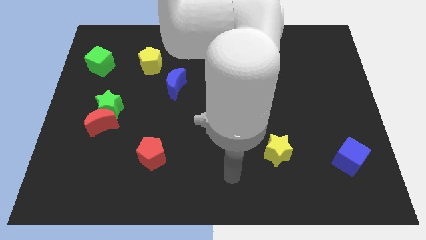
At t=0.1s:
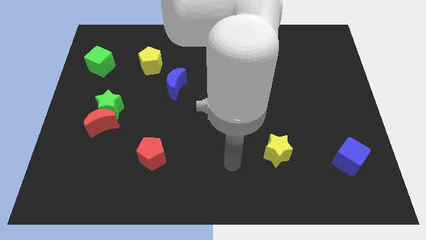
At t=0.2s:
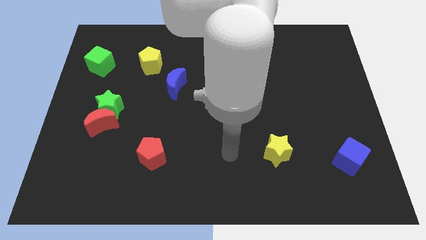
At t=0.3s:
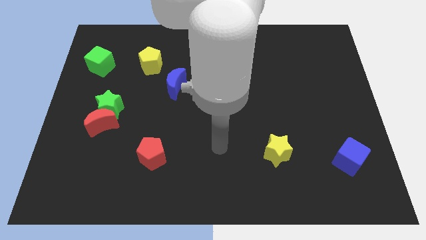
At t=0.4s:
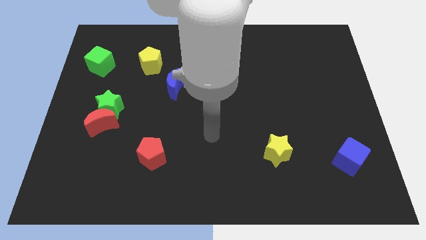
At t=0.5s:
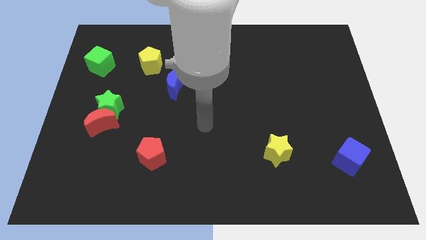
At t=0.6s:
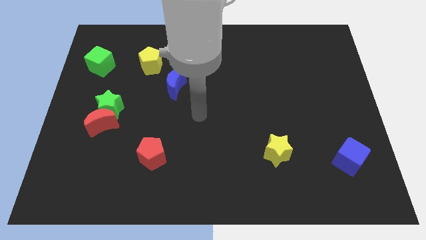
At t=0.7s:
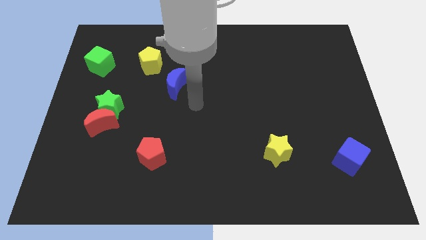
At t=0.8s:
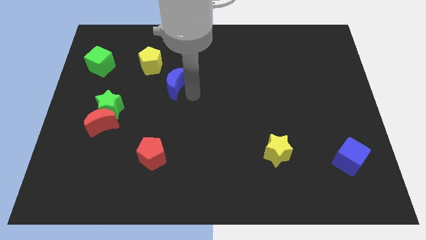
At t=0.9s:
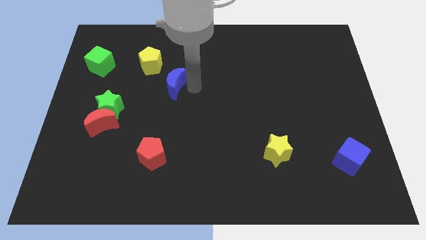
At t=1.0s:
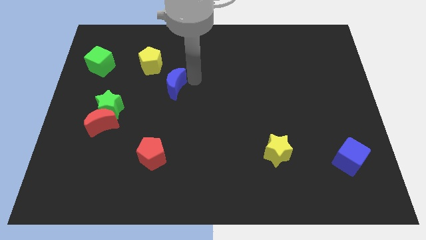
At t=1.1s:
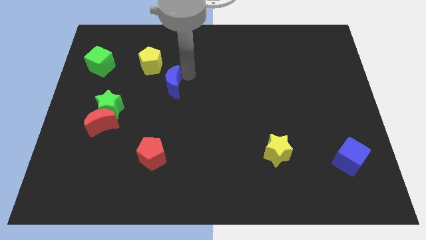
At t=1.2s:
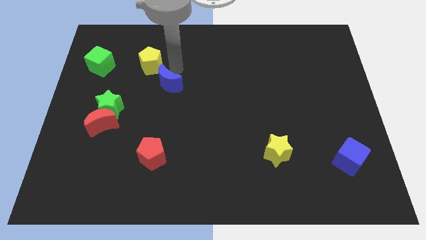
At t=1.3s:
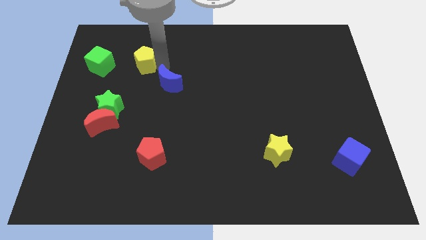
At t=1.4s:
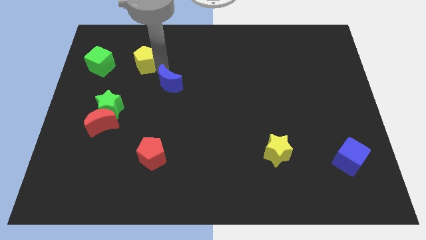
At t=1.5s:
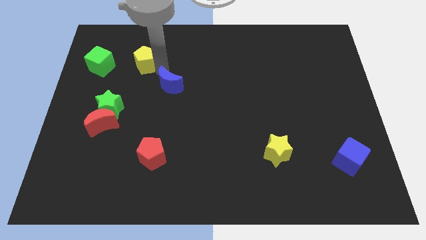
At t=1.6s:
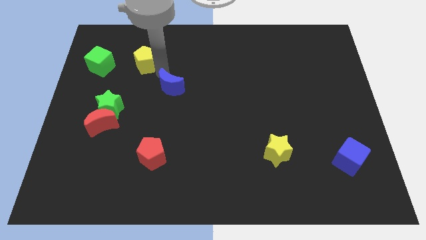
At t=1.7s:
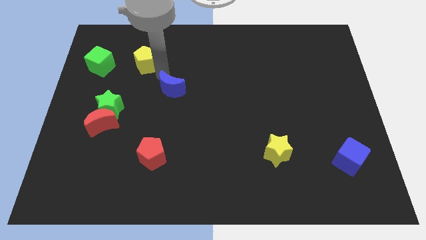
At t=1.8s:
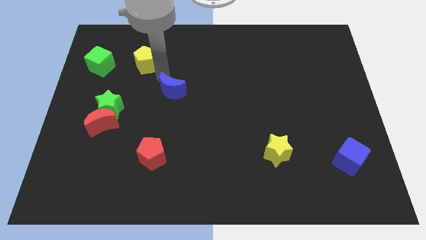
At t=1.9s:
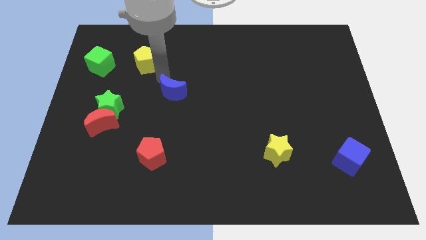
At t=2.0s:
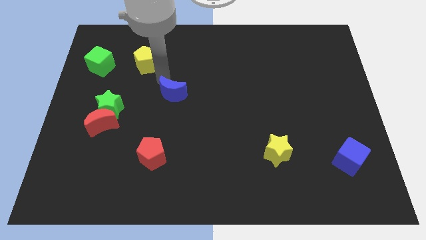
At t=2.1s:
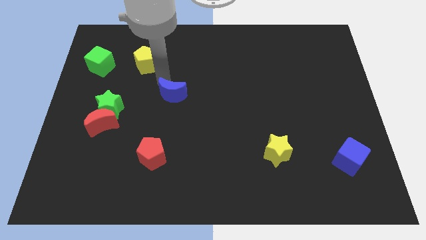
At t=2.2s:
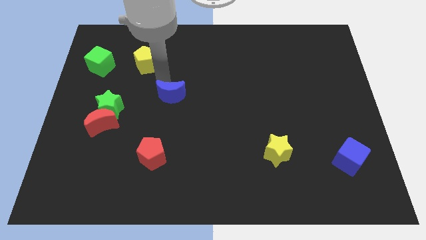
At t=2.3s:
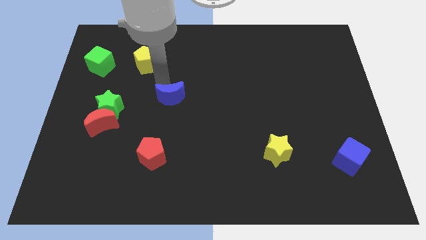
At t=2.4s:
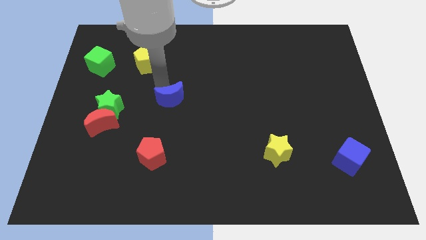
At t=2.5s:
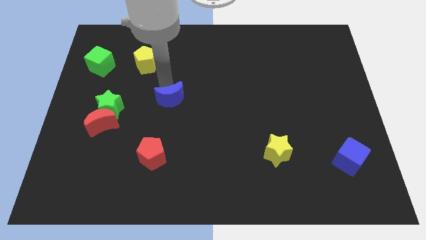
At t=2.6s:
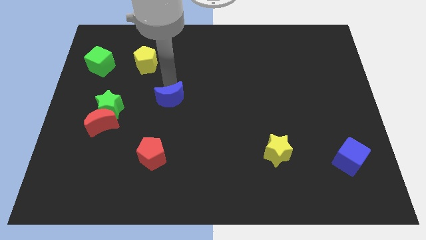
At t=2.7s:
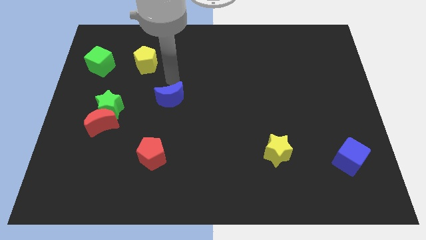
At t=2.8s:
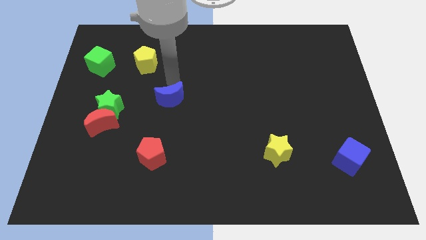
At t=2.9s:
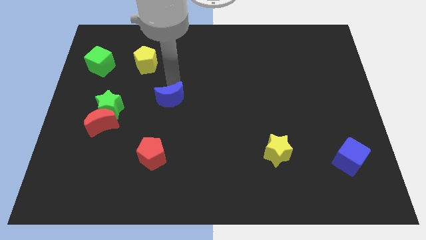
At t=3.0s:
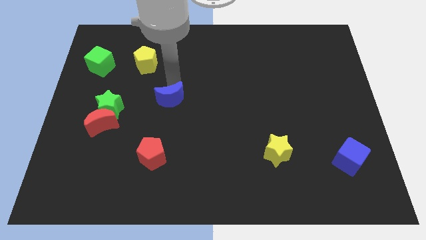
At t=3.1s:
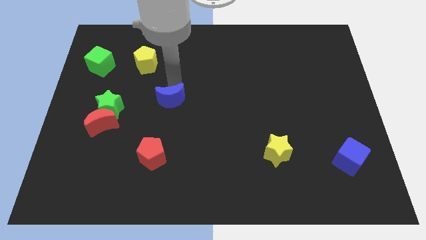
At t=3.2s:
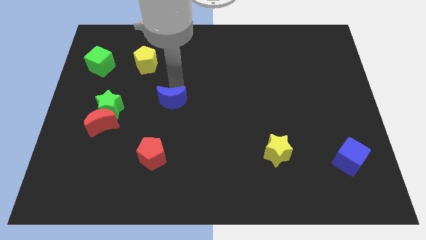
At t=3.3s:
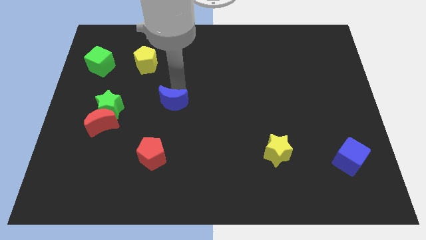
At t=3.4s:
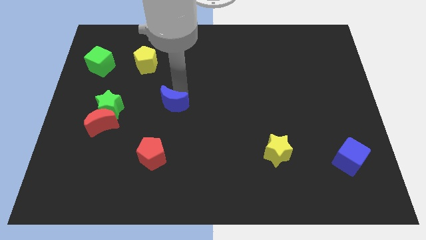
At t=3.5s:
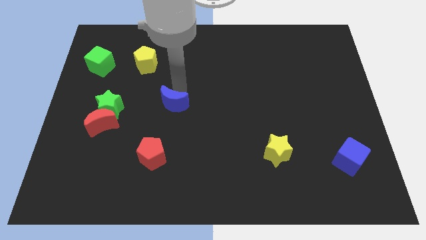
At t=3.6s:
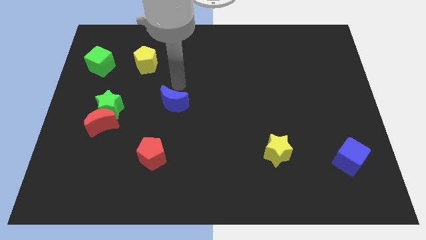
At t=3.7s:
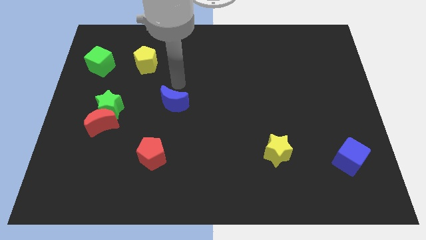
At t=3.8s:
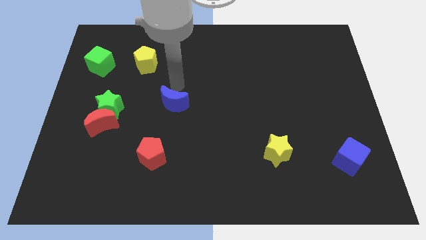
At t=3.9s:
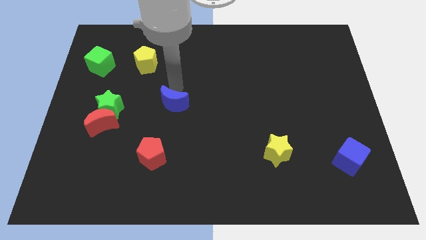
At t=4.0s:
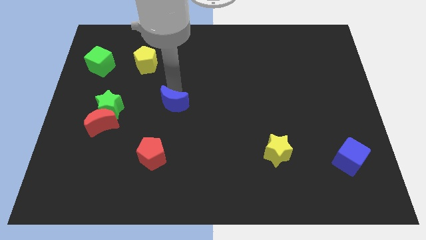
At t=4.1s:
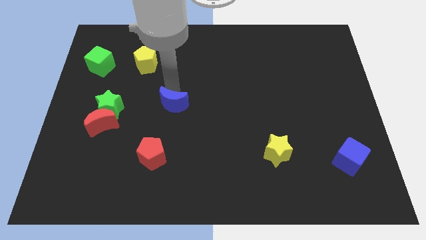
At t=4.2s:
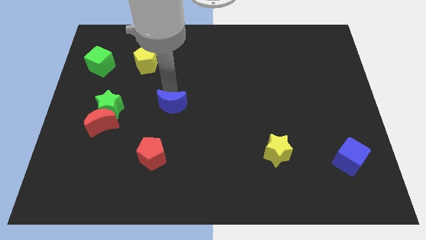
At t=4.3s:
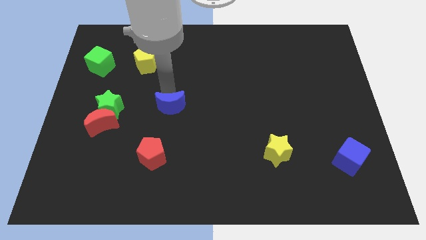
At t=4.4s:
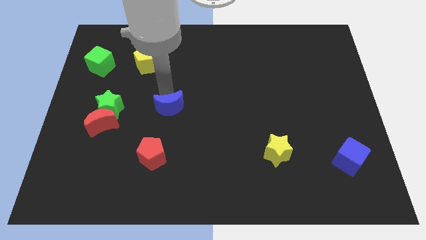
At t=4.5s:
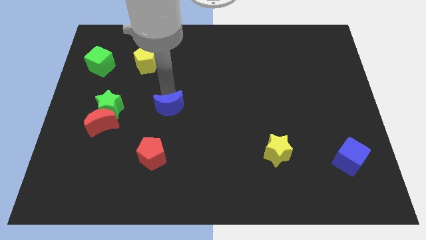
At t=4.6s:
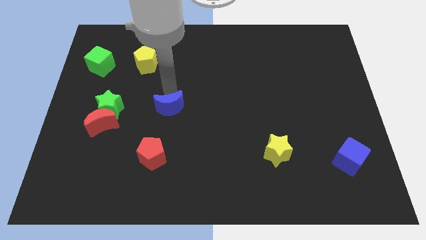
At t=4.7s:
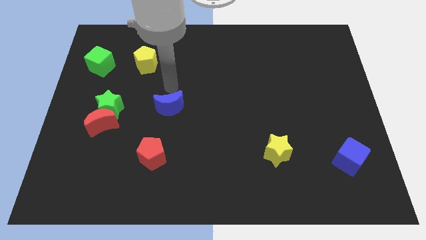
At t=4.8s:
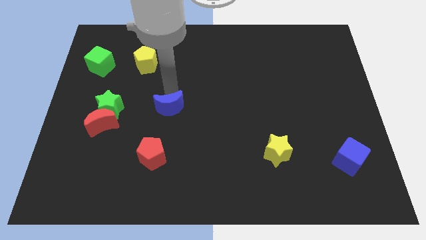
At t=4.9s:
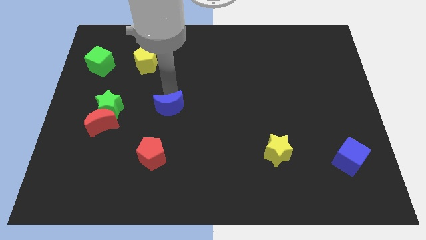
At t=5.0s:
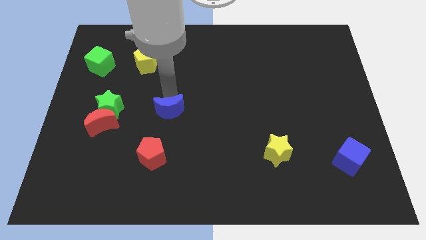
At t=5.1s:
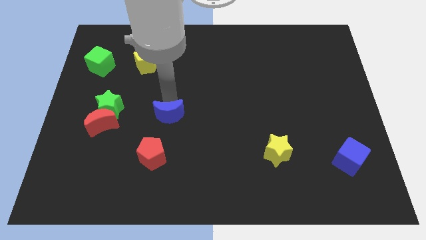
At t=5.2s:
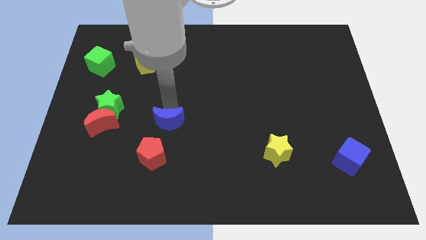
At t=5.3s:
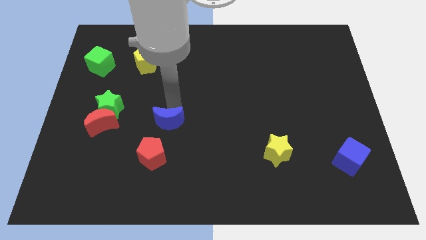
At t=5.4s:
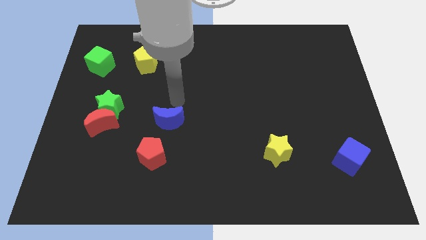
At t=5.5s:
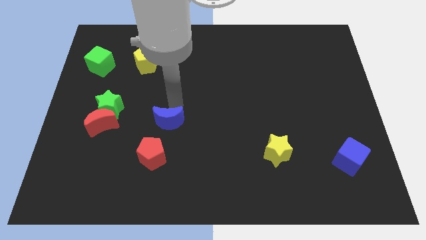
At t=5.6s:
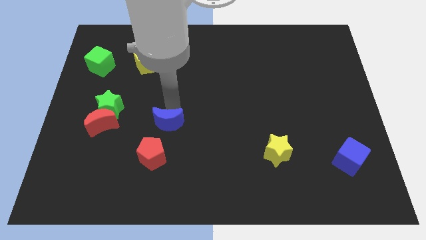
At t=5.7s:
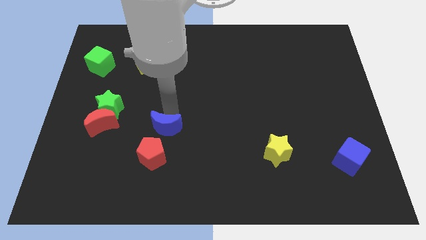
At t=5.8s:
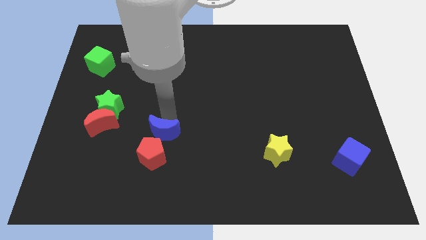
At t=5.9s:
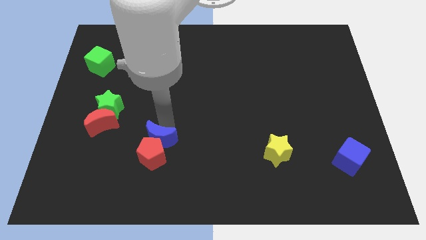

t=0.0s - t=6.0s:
put the blue moon next to the red pentagon
